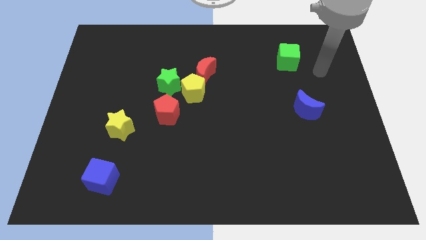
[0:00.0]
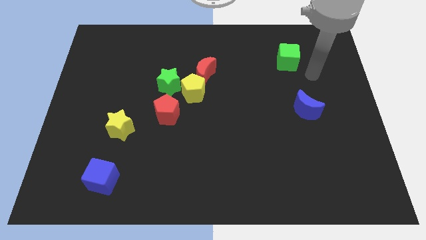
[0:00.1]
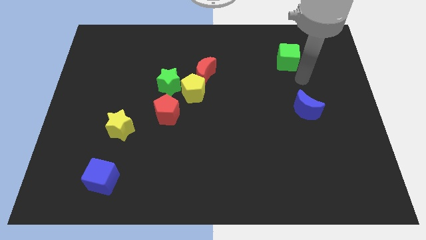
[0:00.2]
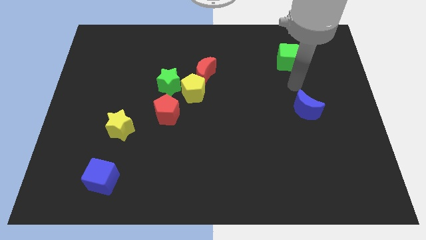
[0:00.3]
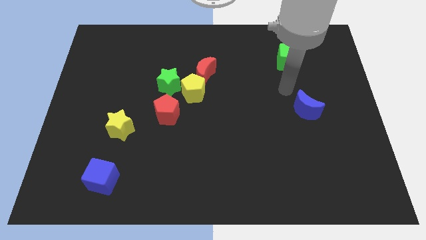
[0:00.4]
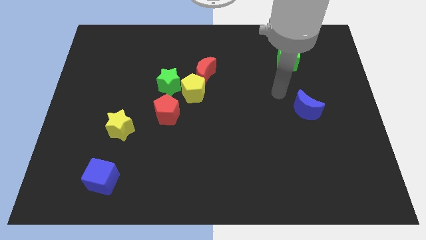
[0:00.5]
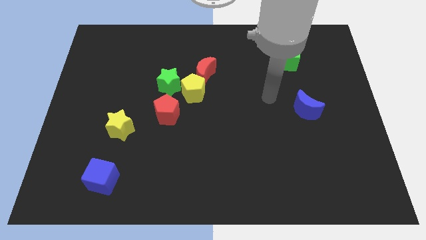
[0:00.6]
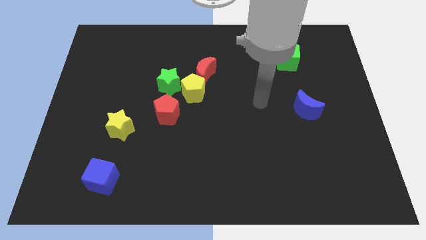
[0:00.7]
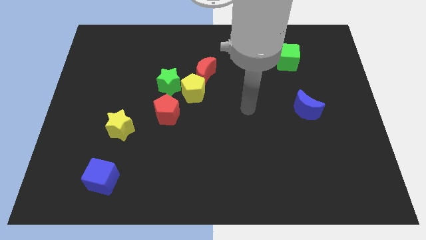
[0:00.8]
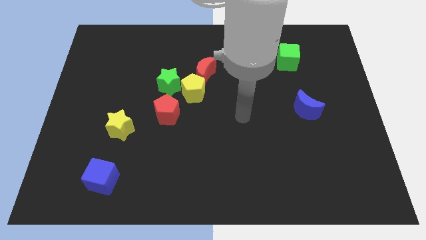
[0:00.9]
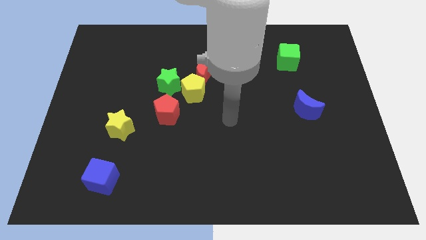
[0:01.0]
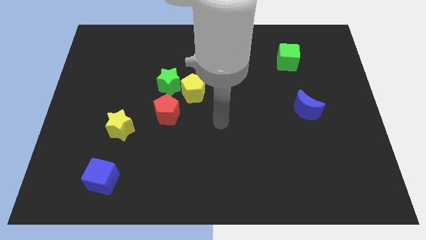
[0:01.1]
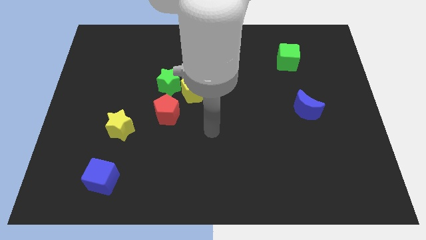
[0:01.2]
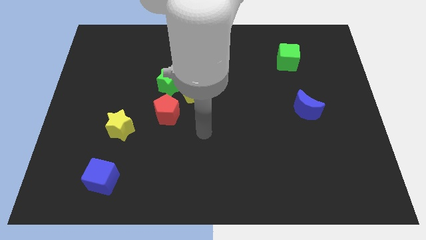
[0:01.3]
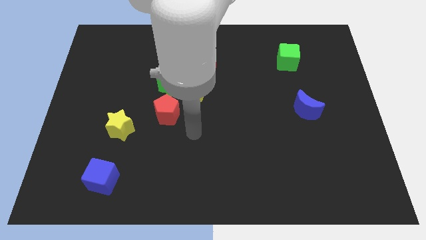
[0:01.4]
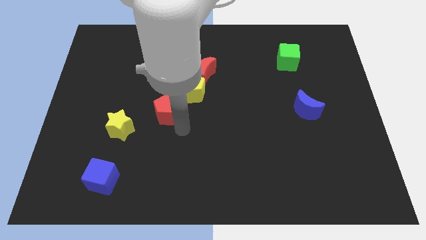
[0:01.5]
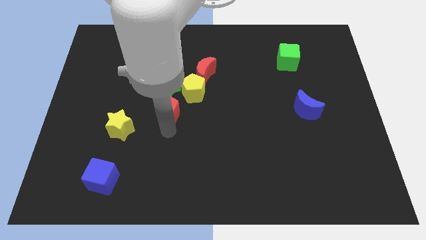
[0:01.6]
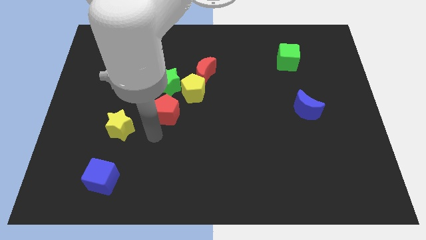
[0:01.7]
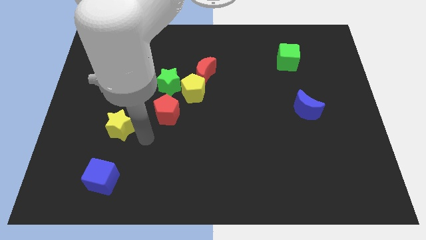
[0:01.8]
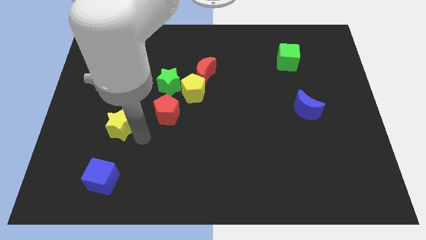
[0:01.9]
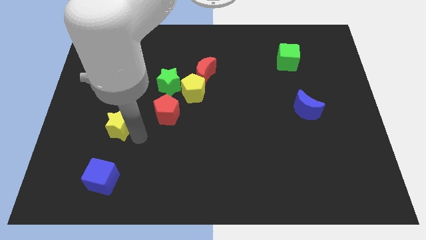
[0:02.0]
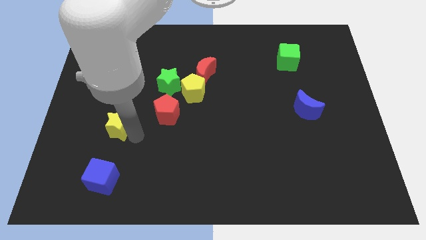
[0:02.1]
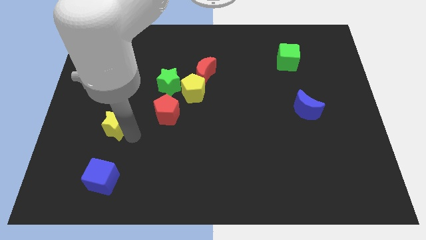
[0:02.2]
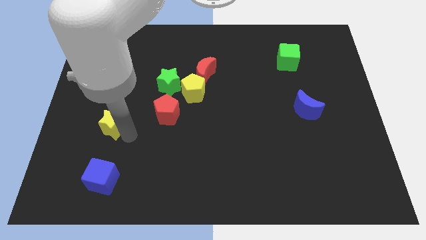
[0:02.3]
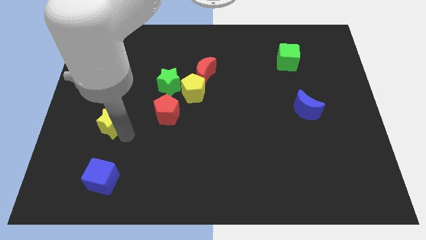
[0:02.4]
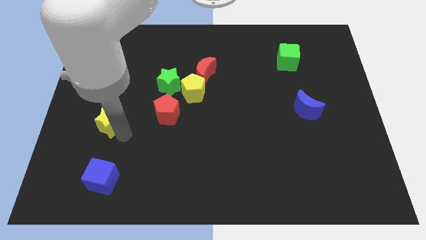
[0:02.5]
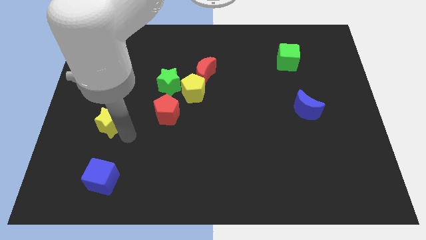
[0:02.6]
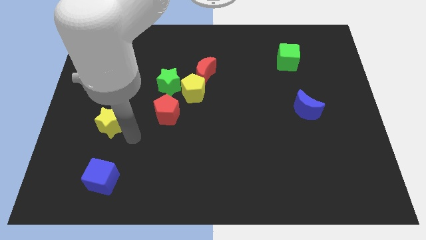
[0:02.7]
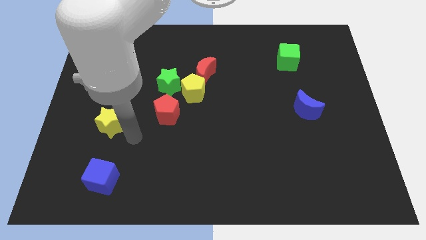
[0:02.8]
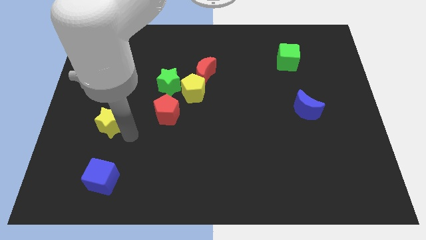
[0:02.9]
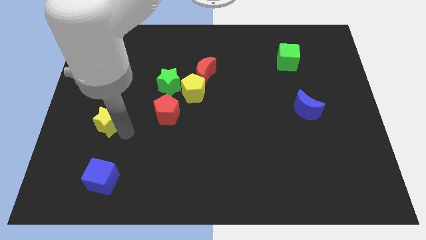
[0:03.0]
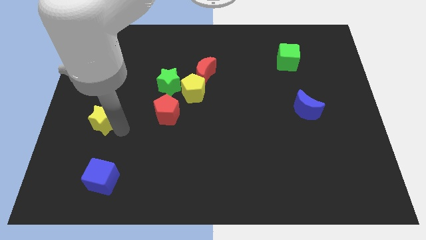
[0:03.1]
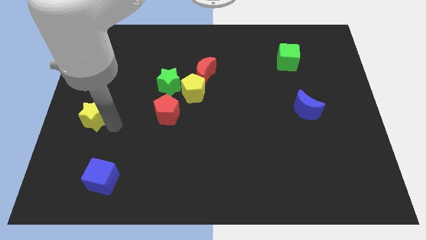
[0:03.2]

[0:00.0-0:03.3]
push the yellow star to the left side

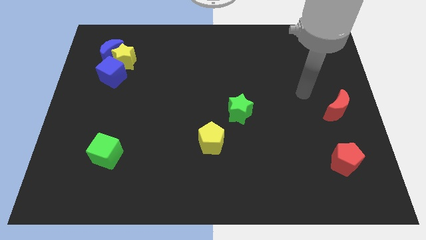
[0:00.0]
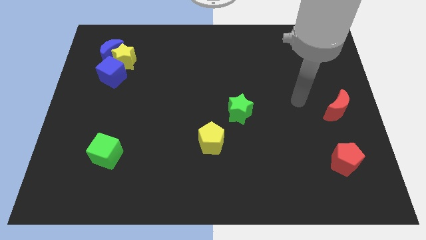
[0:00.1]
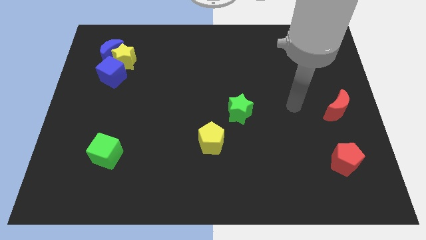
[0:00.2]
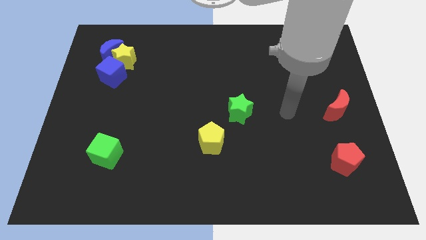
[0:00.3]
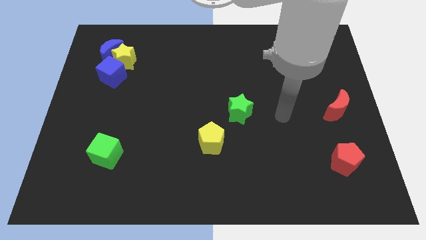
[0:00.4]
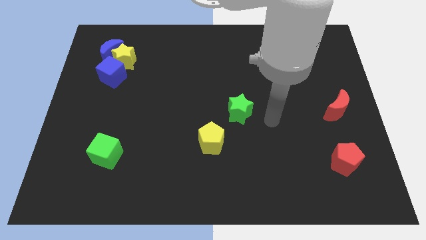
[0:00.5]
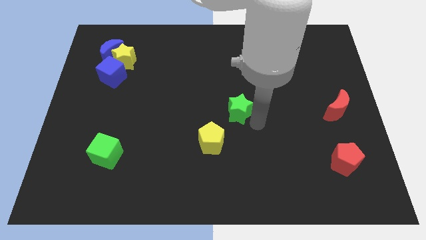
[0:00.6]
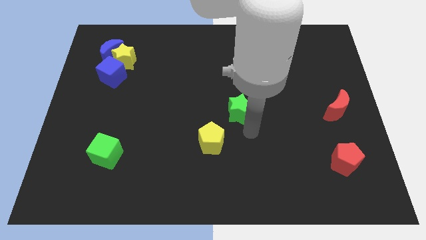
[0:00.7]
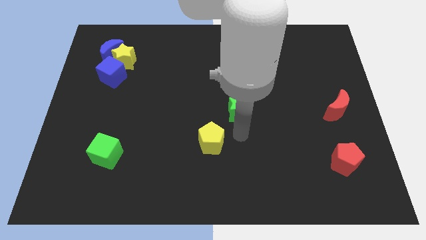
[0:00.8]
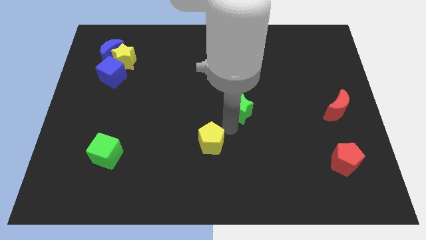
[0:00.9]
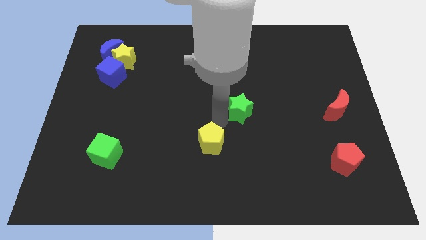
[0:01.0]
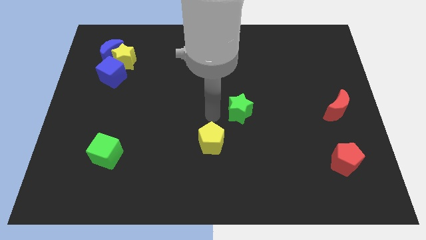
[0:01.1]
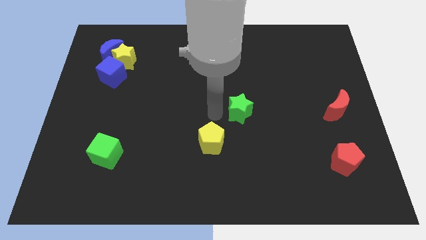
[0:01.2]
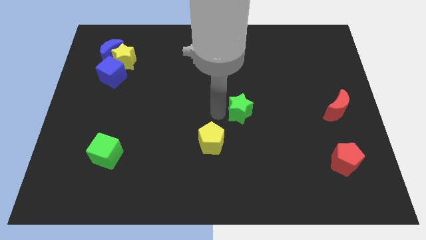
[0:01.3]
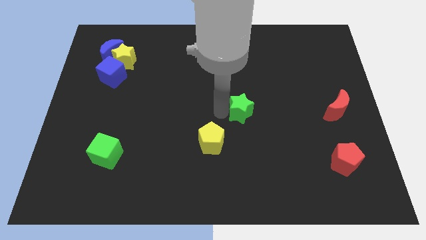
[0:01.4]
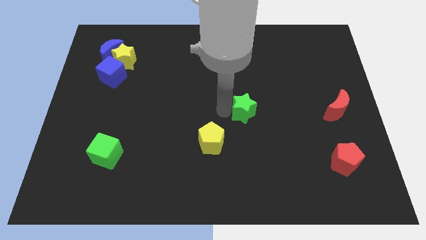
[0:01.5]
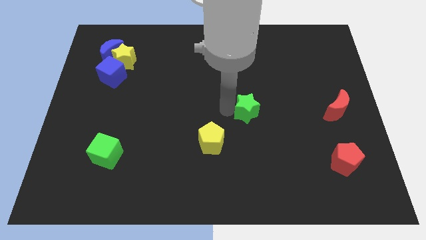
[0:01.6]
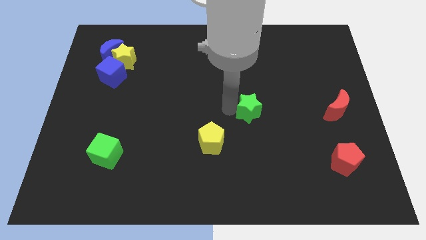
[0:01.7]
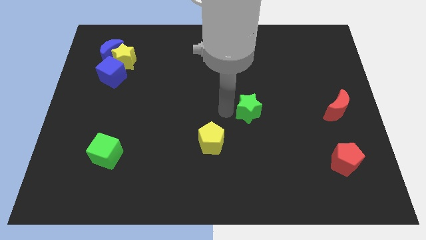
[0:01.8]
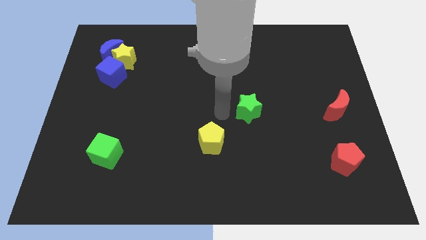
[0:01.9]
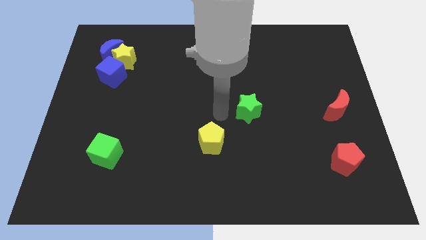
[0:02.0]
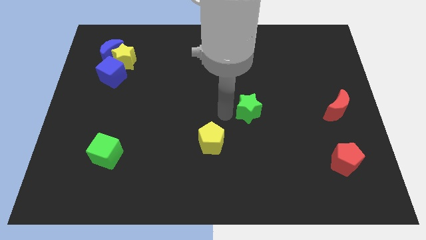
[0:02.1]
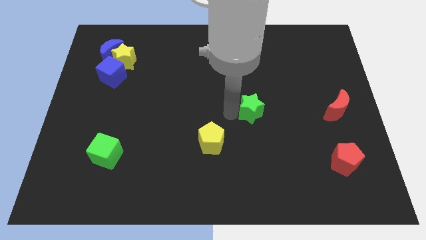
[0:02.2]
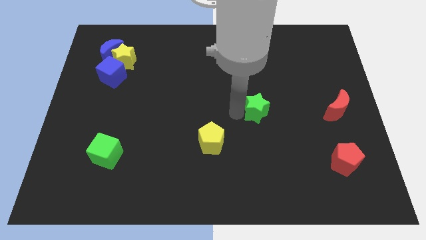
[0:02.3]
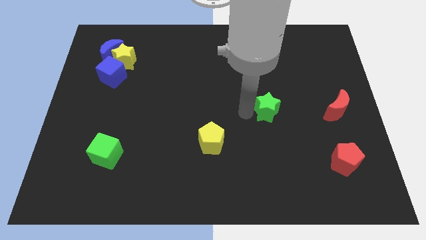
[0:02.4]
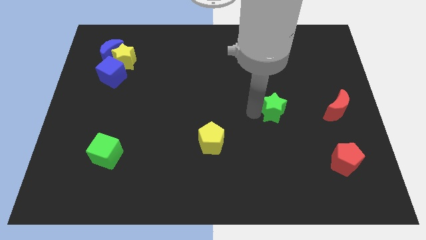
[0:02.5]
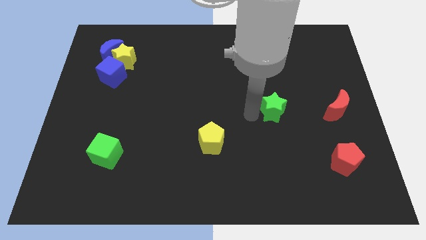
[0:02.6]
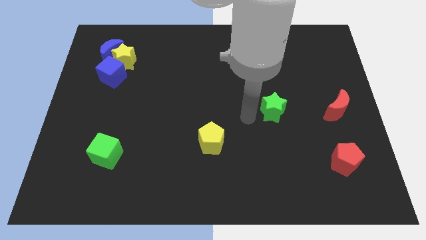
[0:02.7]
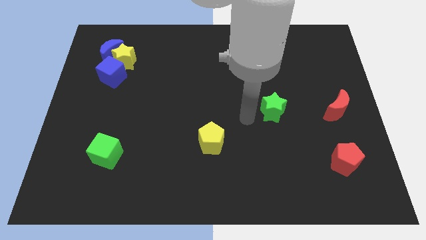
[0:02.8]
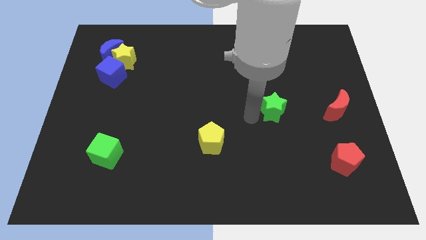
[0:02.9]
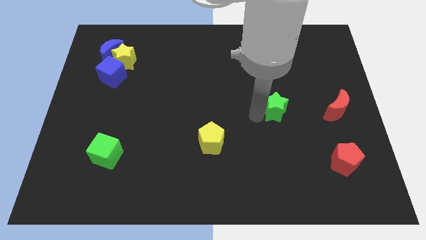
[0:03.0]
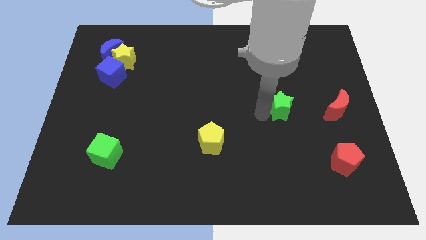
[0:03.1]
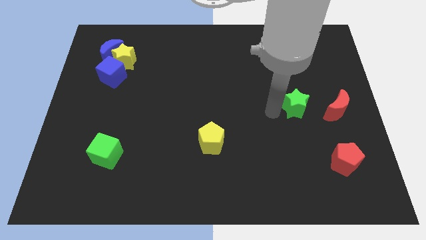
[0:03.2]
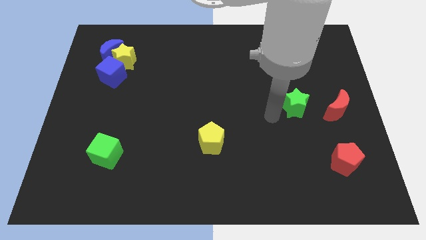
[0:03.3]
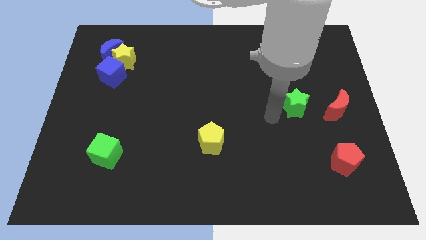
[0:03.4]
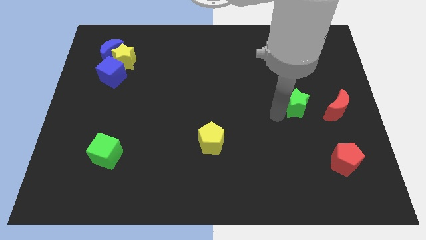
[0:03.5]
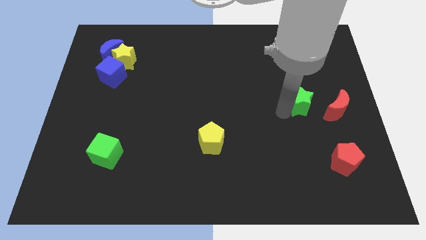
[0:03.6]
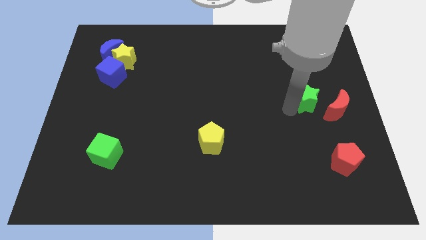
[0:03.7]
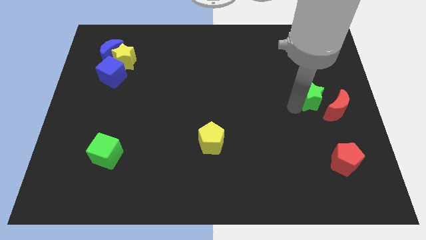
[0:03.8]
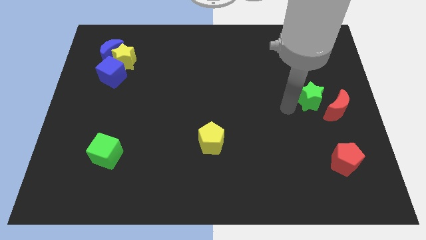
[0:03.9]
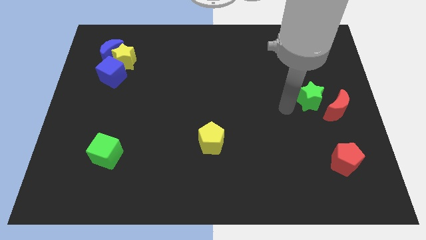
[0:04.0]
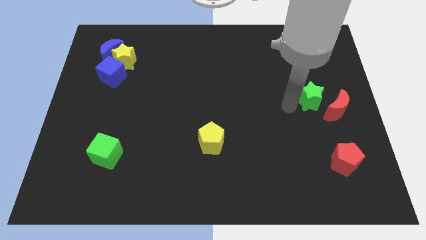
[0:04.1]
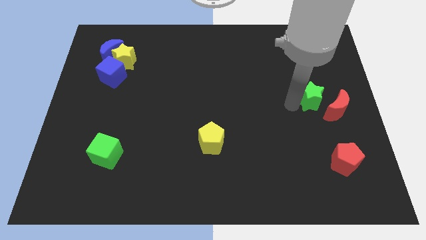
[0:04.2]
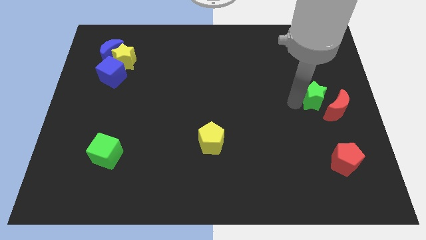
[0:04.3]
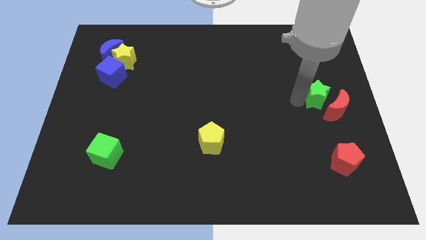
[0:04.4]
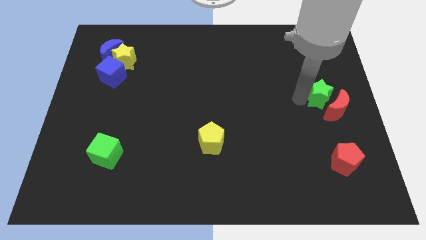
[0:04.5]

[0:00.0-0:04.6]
move the green star to the right side

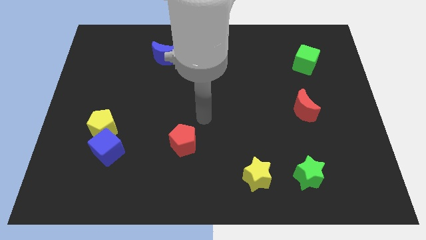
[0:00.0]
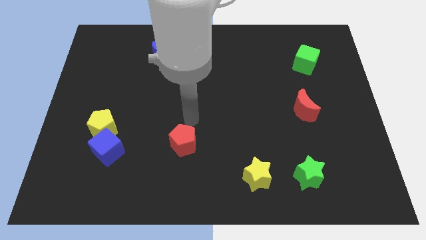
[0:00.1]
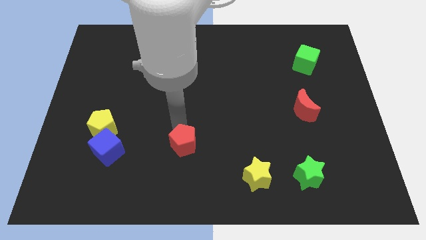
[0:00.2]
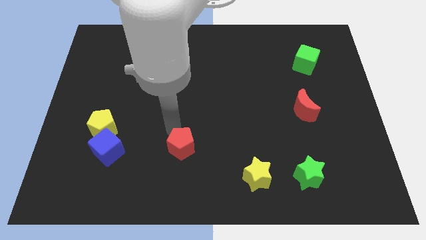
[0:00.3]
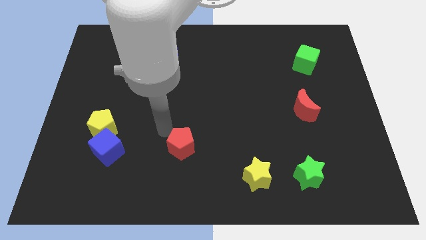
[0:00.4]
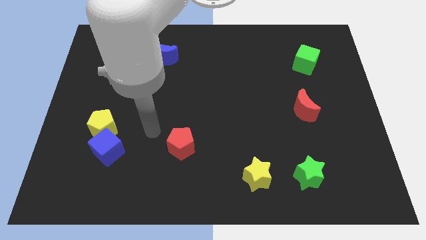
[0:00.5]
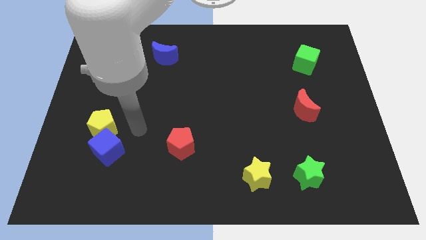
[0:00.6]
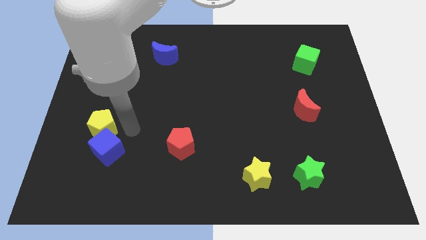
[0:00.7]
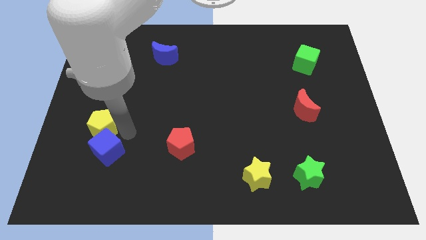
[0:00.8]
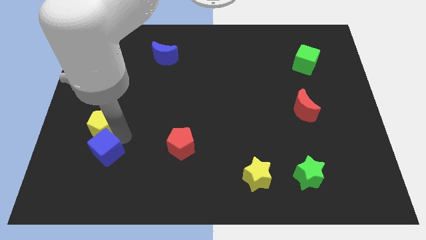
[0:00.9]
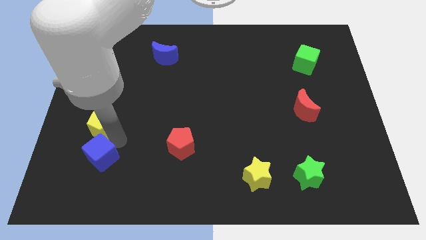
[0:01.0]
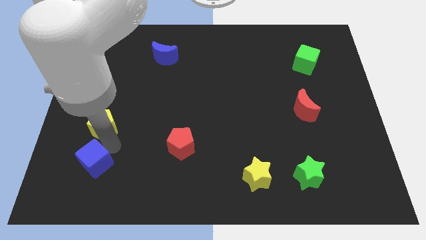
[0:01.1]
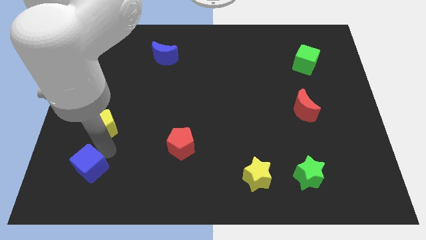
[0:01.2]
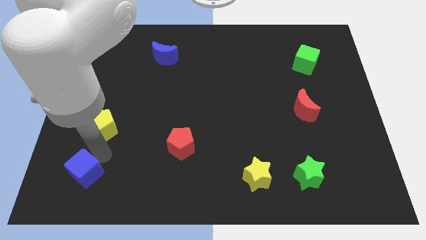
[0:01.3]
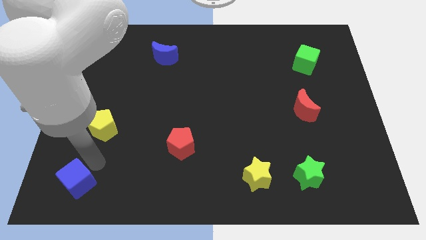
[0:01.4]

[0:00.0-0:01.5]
slide the blue cube to the bottom left corner
